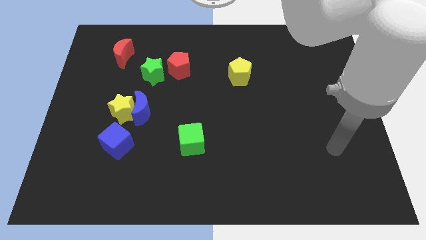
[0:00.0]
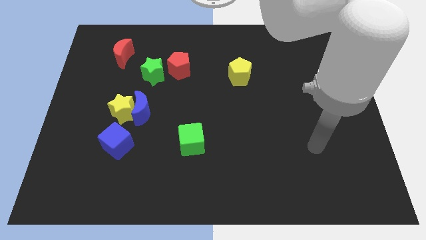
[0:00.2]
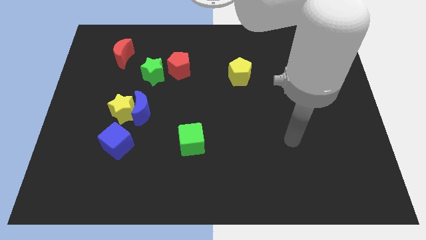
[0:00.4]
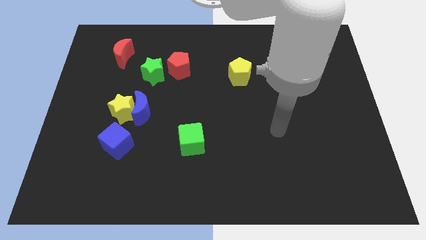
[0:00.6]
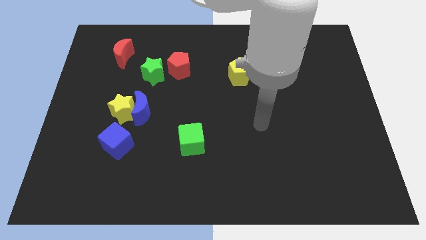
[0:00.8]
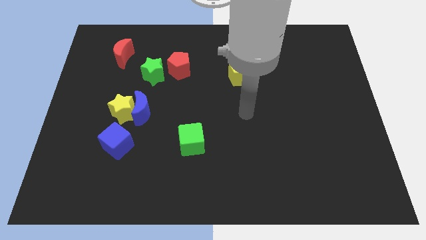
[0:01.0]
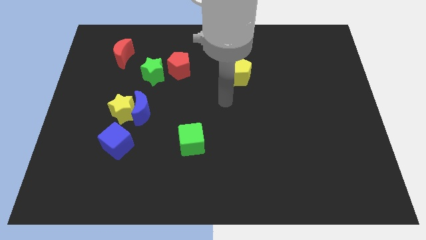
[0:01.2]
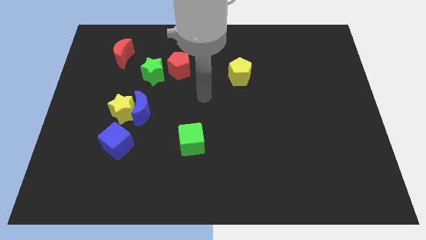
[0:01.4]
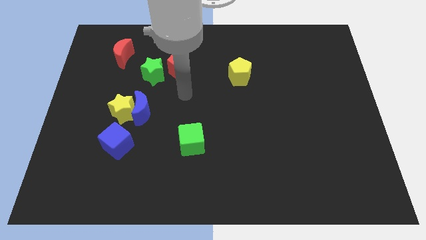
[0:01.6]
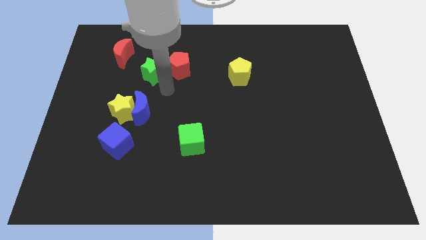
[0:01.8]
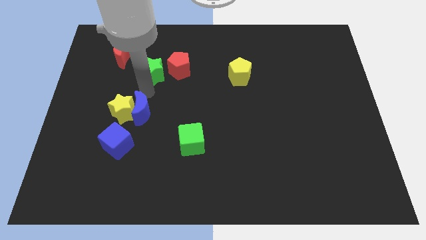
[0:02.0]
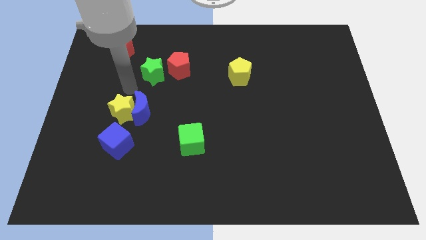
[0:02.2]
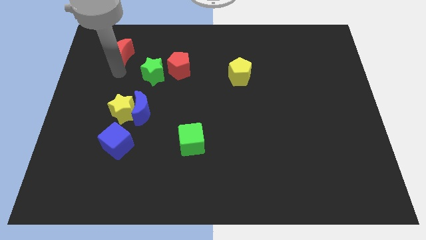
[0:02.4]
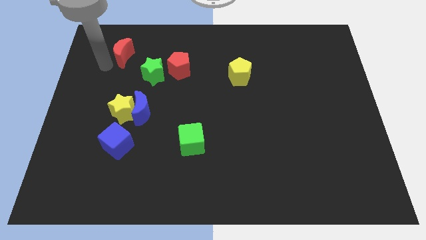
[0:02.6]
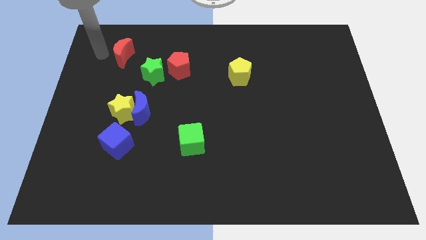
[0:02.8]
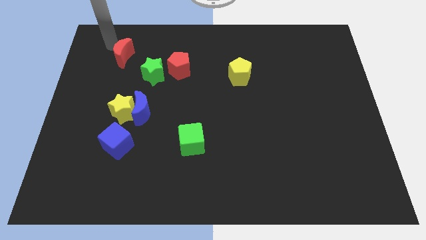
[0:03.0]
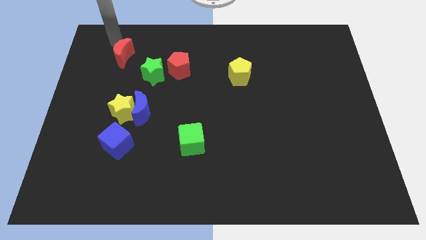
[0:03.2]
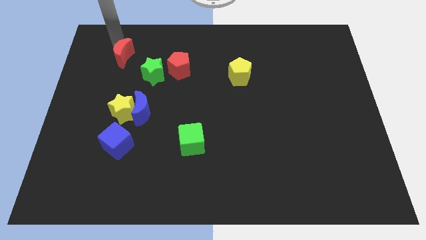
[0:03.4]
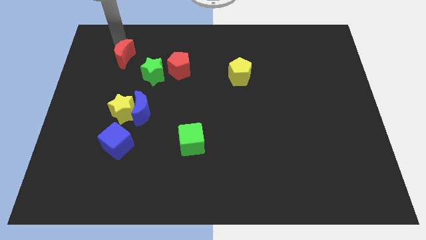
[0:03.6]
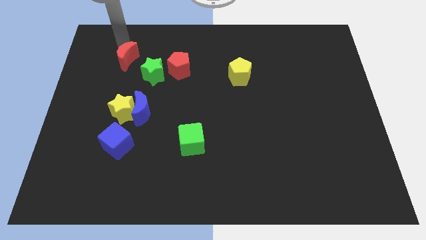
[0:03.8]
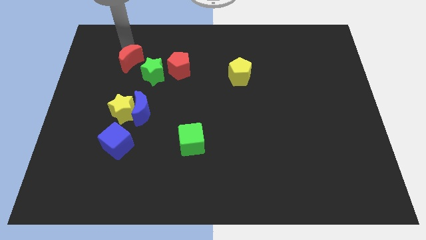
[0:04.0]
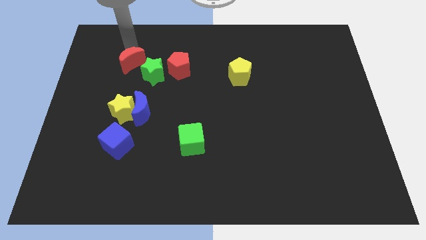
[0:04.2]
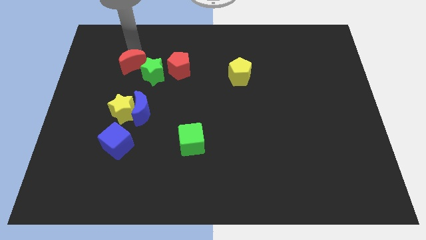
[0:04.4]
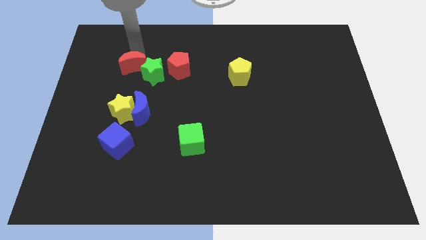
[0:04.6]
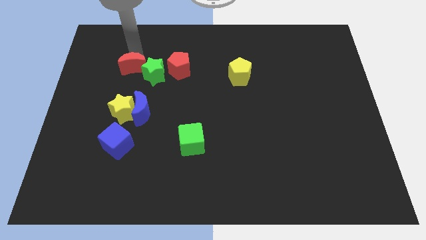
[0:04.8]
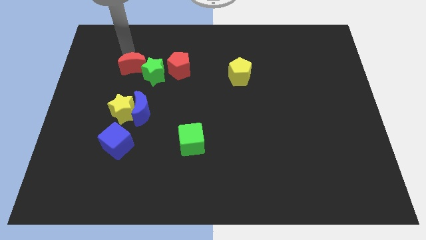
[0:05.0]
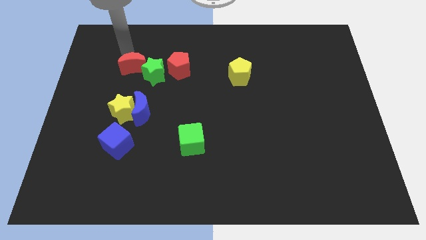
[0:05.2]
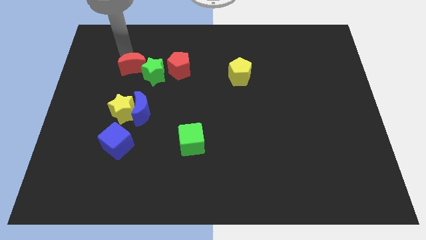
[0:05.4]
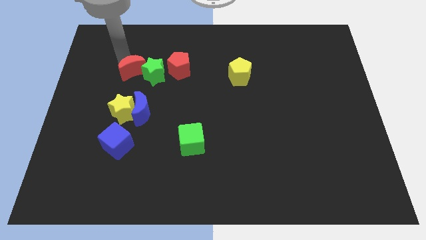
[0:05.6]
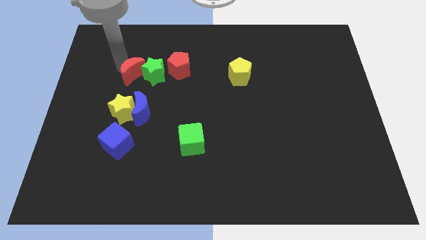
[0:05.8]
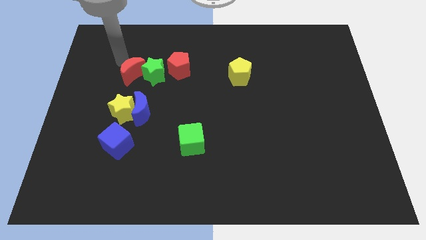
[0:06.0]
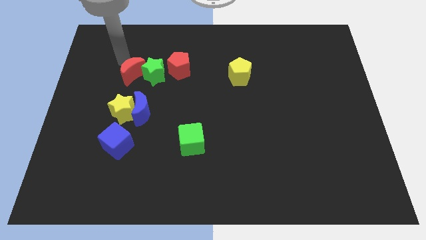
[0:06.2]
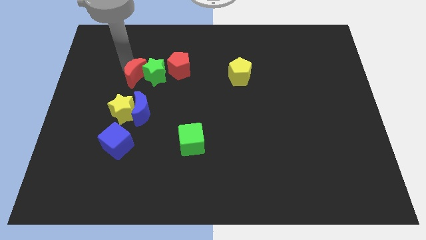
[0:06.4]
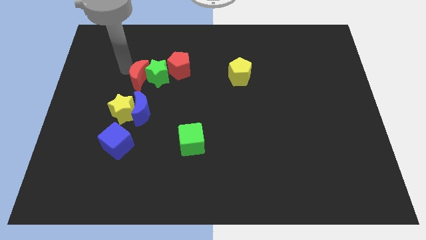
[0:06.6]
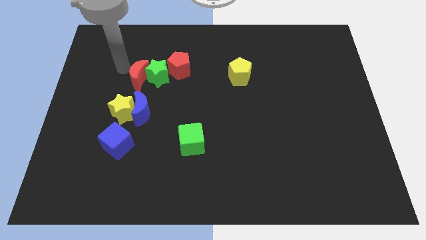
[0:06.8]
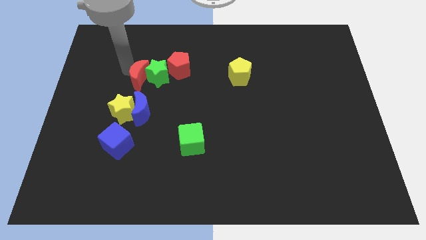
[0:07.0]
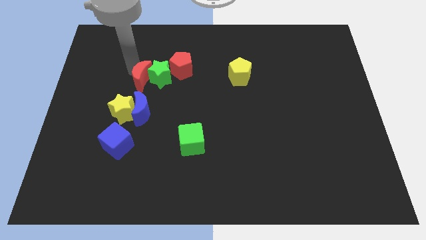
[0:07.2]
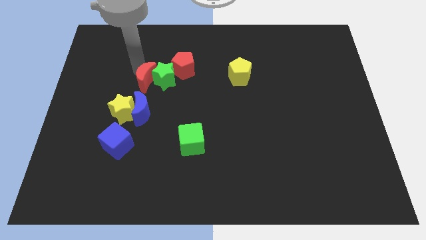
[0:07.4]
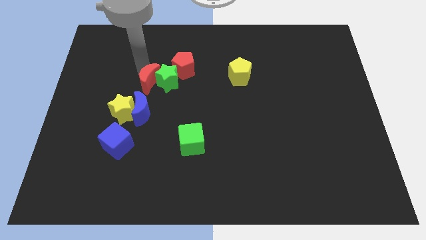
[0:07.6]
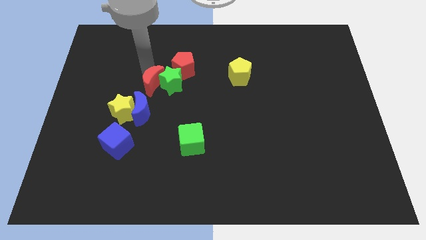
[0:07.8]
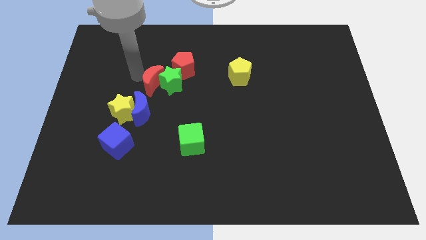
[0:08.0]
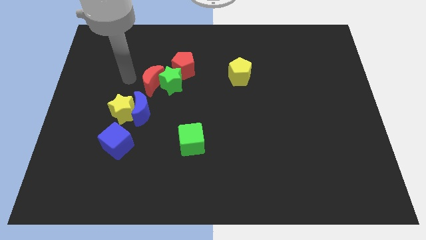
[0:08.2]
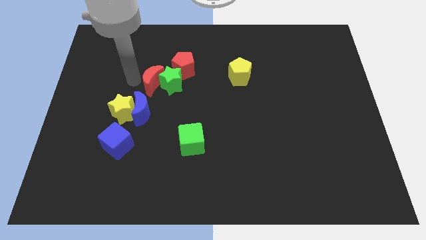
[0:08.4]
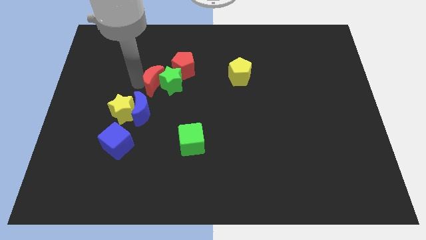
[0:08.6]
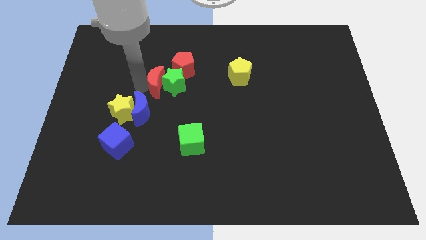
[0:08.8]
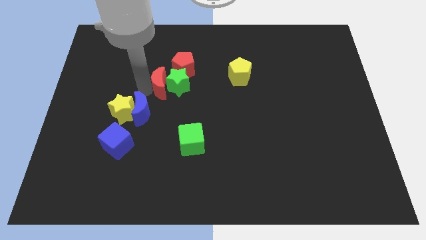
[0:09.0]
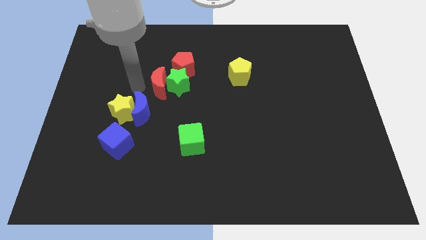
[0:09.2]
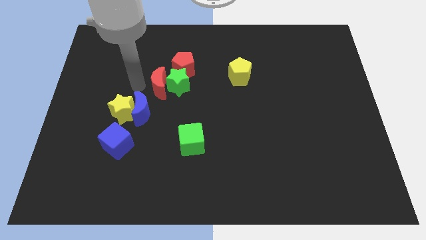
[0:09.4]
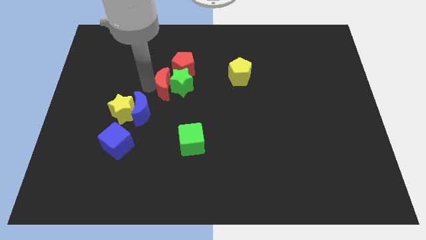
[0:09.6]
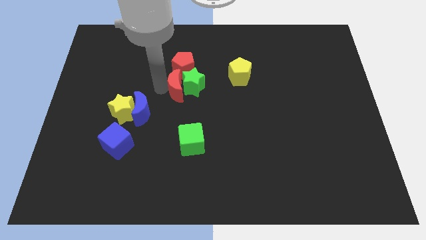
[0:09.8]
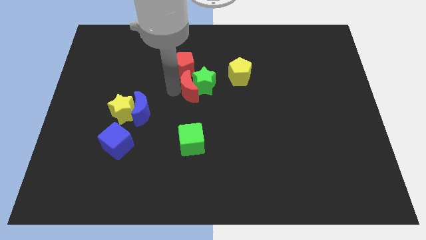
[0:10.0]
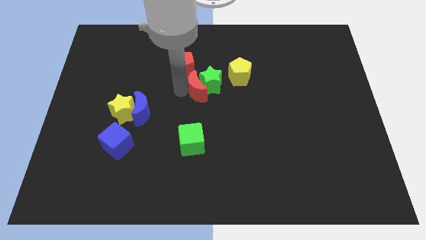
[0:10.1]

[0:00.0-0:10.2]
slide the red moon diagonally down and to the left of the yellow pentagon

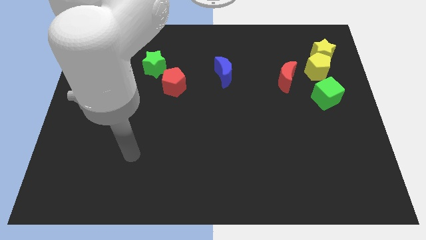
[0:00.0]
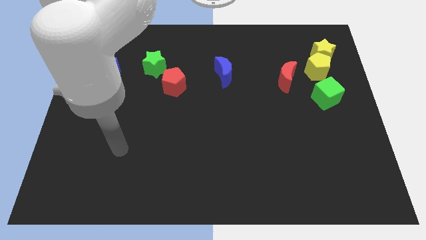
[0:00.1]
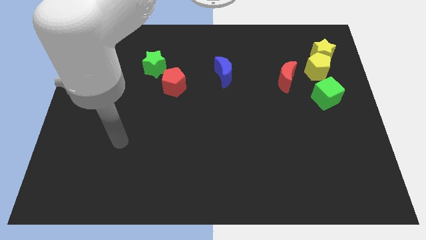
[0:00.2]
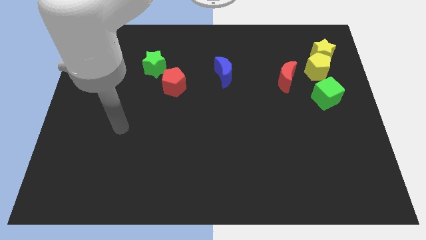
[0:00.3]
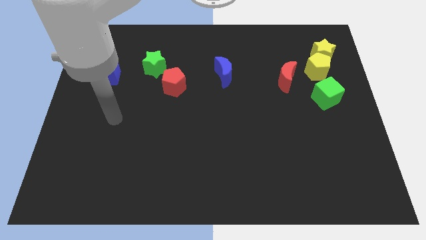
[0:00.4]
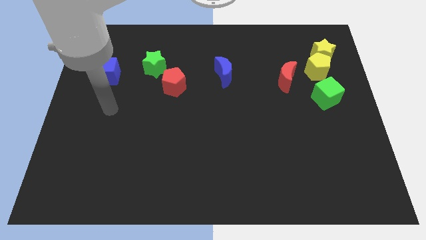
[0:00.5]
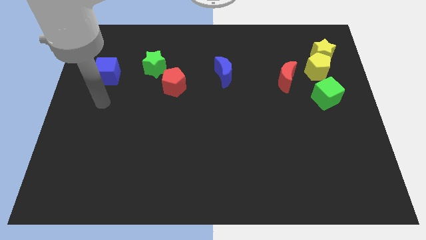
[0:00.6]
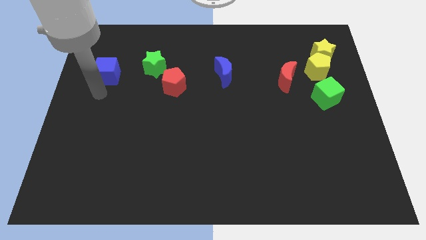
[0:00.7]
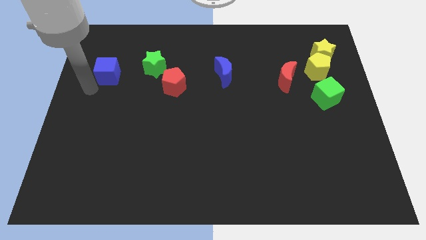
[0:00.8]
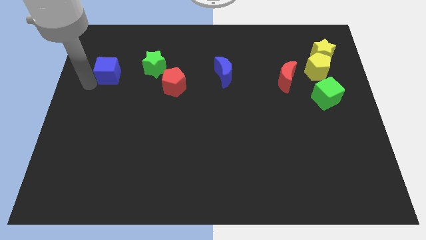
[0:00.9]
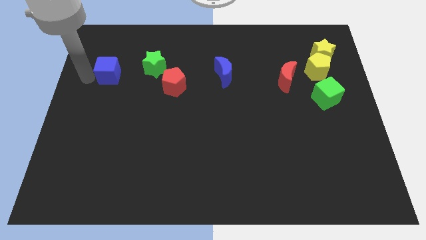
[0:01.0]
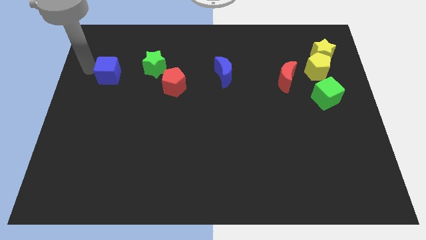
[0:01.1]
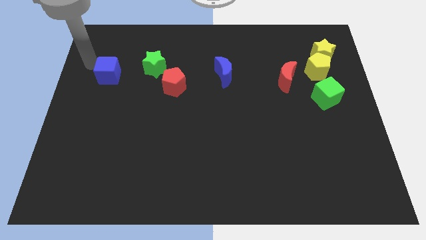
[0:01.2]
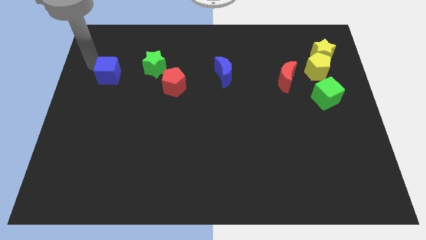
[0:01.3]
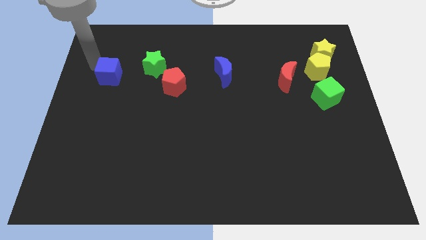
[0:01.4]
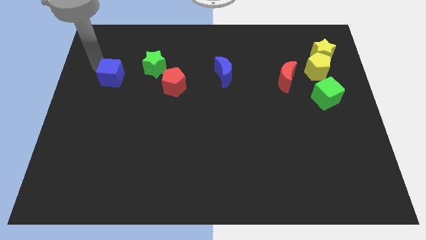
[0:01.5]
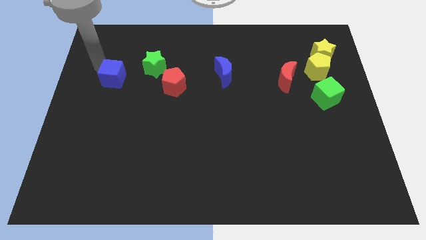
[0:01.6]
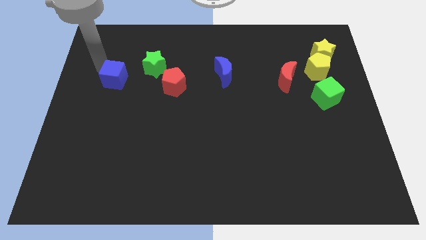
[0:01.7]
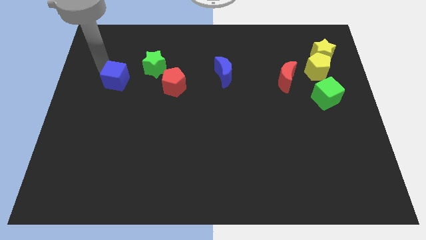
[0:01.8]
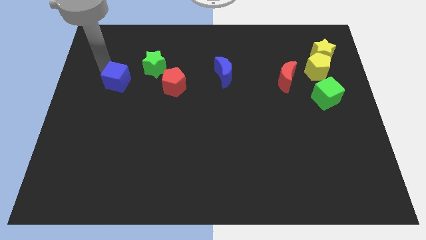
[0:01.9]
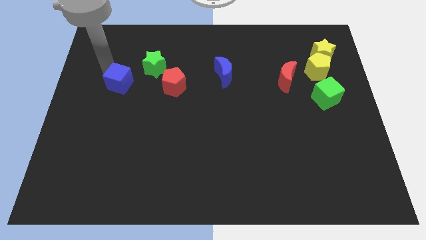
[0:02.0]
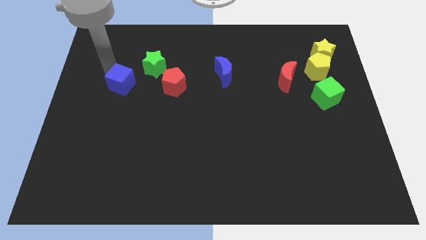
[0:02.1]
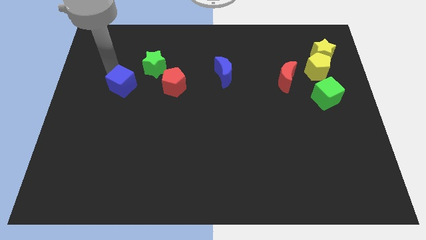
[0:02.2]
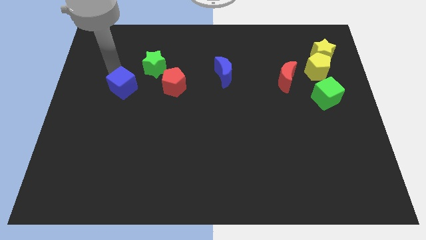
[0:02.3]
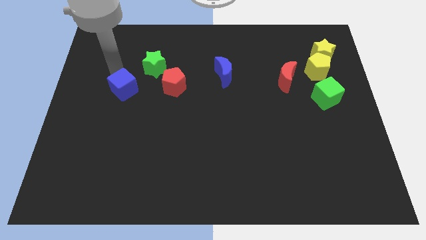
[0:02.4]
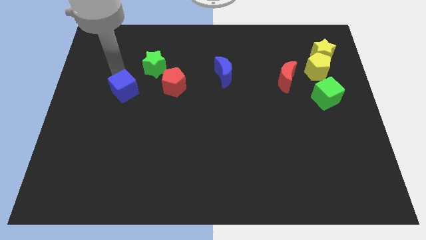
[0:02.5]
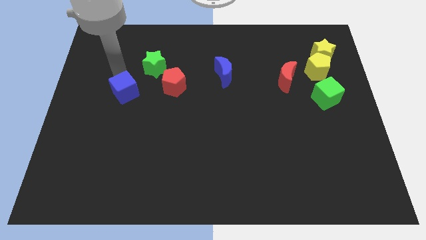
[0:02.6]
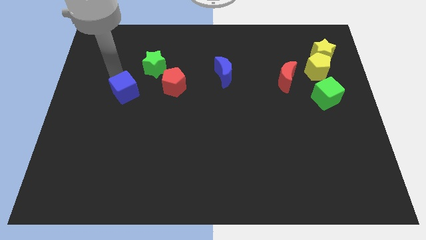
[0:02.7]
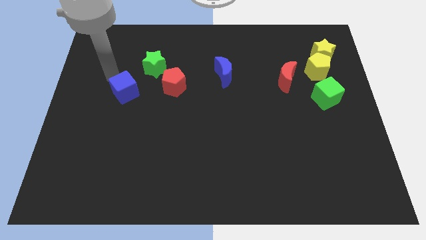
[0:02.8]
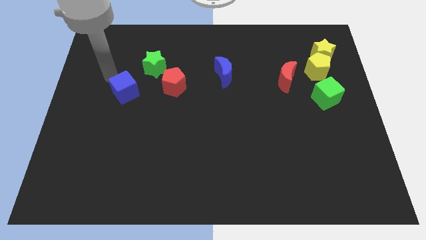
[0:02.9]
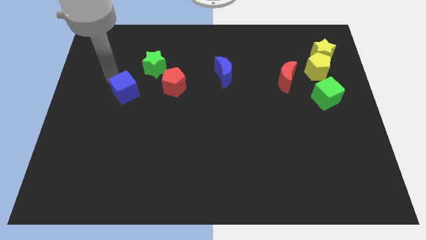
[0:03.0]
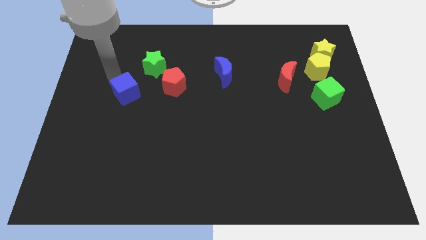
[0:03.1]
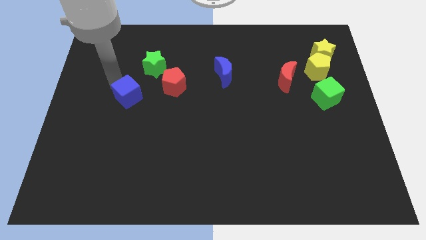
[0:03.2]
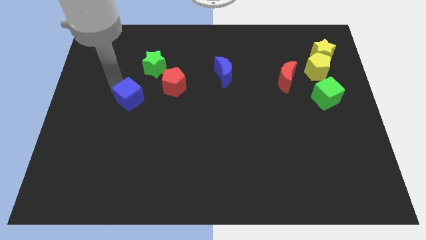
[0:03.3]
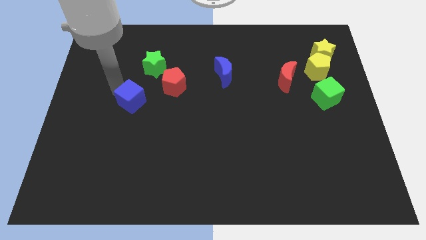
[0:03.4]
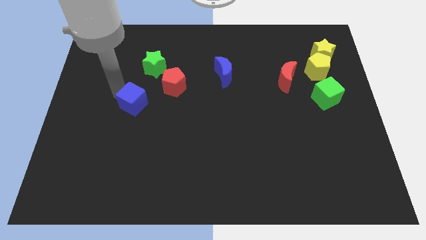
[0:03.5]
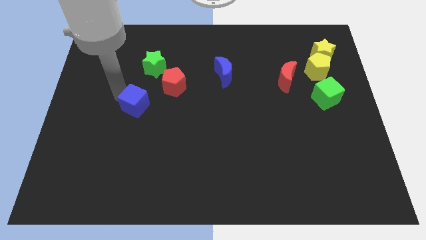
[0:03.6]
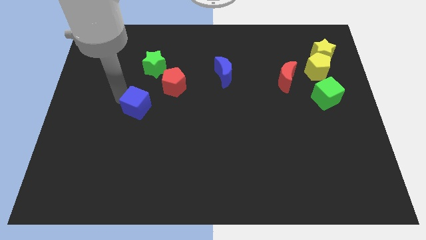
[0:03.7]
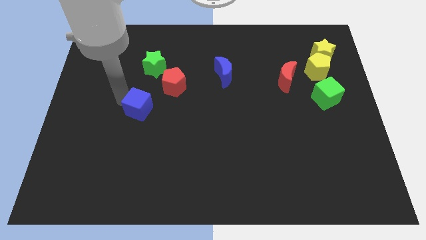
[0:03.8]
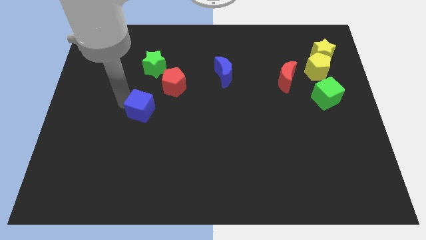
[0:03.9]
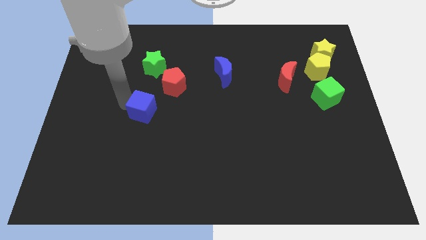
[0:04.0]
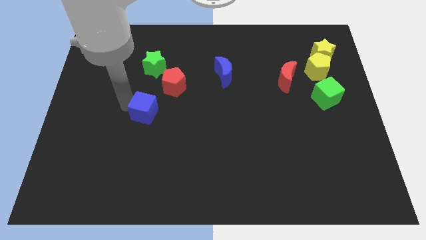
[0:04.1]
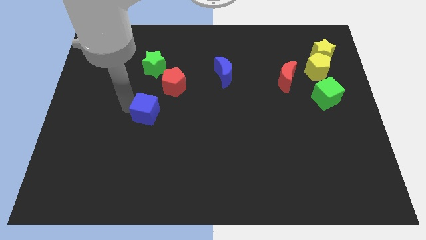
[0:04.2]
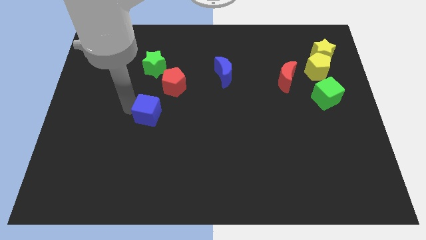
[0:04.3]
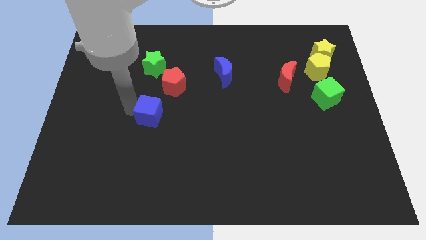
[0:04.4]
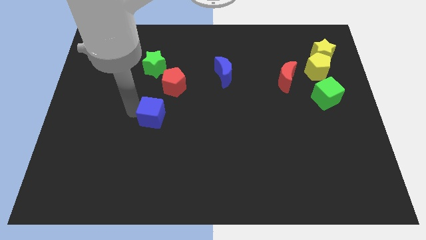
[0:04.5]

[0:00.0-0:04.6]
push the blue cube to the bottom side of the red pentagon
